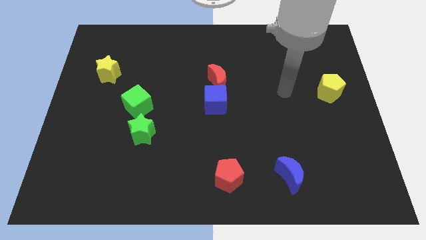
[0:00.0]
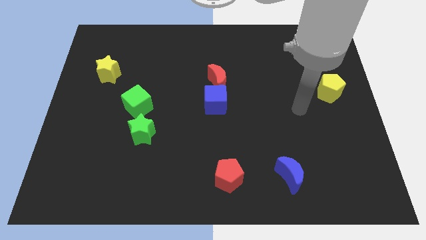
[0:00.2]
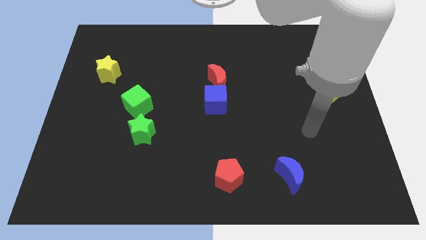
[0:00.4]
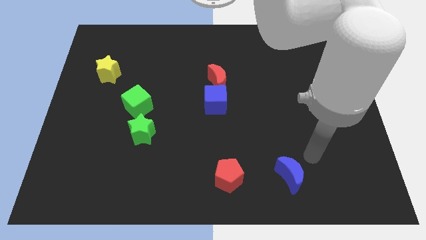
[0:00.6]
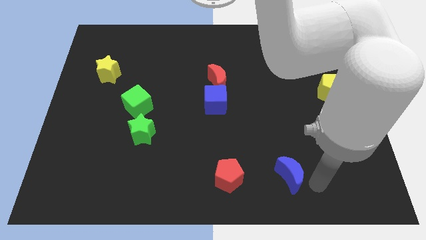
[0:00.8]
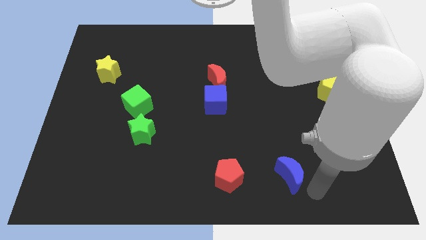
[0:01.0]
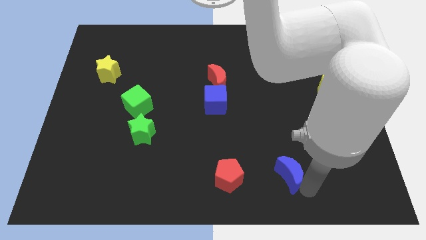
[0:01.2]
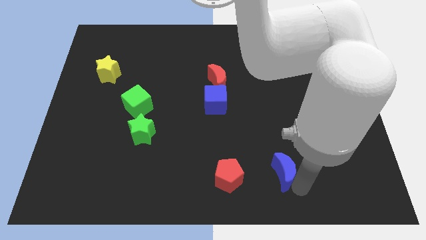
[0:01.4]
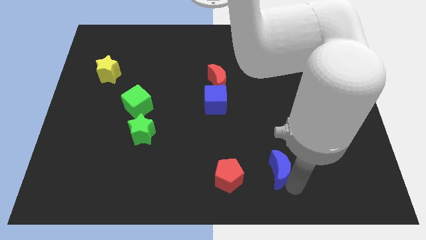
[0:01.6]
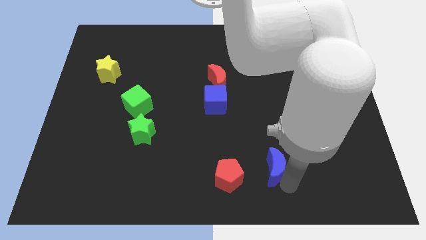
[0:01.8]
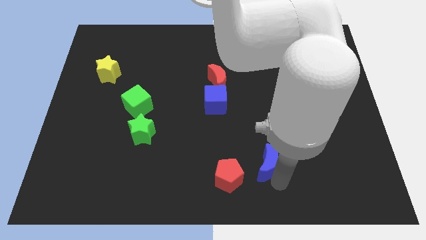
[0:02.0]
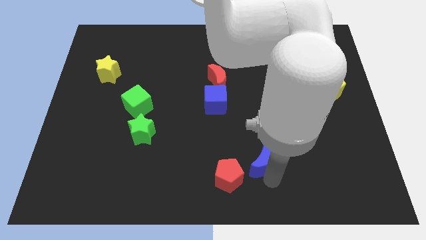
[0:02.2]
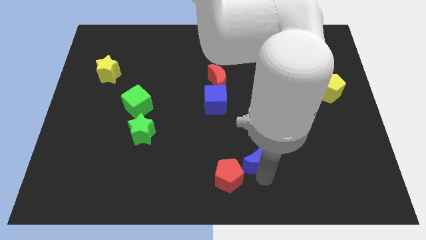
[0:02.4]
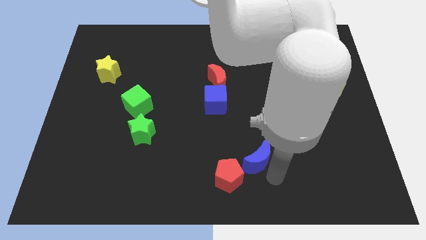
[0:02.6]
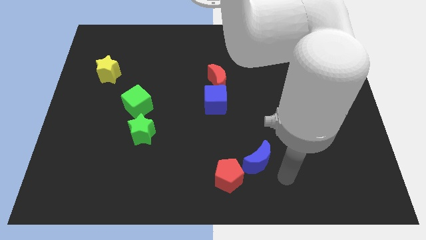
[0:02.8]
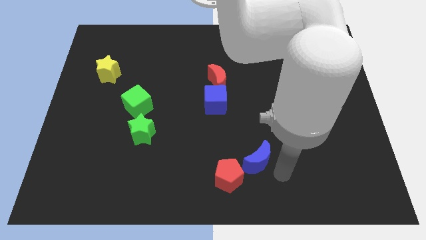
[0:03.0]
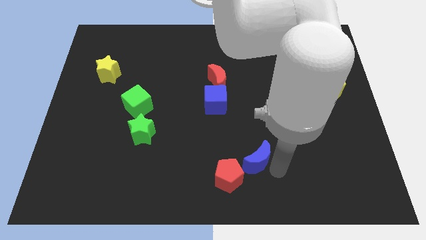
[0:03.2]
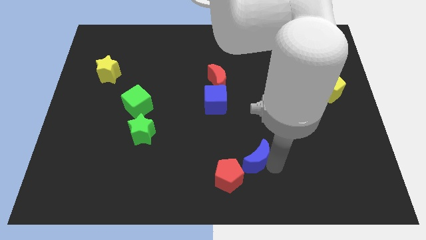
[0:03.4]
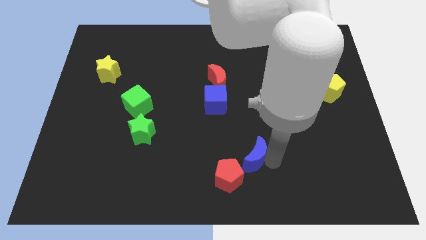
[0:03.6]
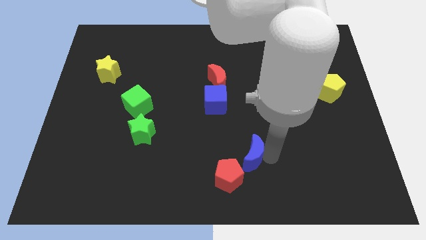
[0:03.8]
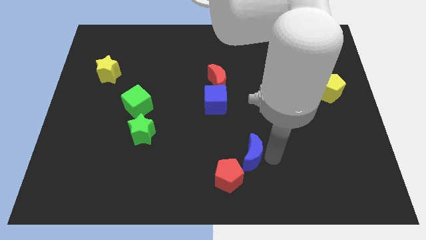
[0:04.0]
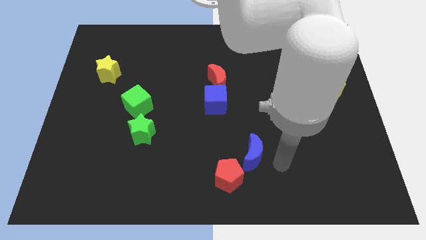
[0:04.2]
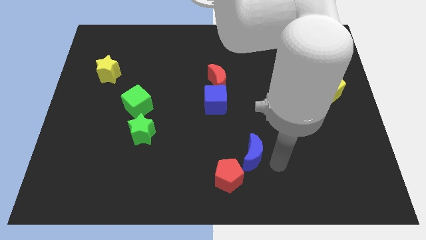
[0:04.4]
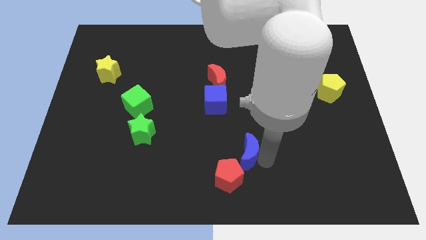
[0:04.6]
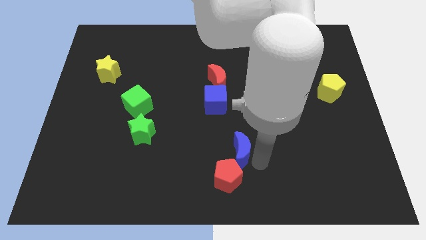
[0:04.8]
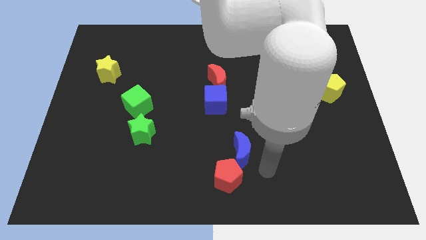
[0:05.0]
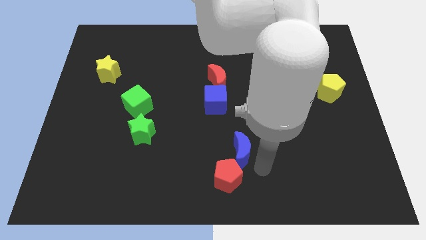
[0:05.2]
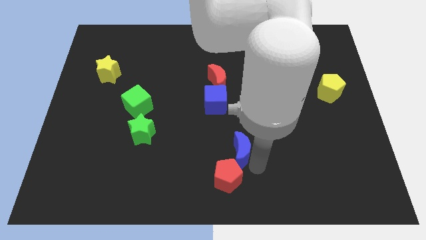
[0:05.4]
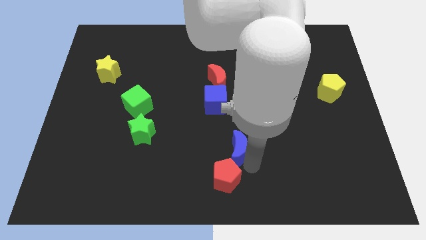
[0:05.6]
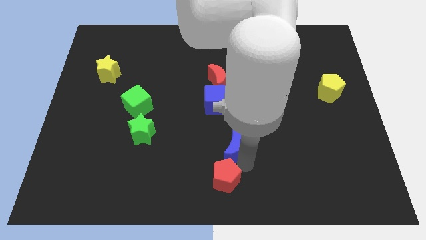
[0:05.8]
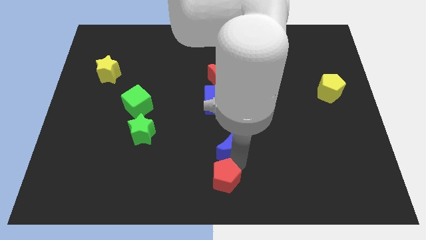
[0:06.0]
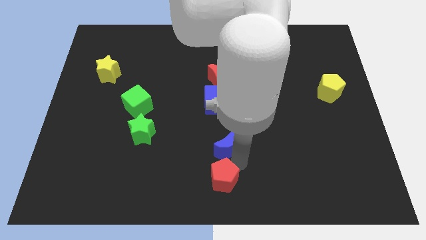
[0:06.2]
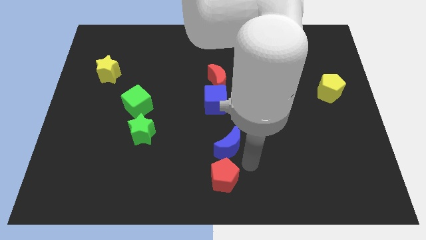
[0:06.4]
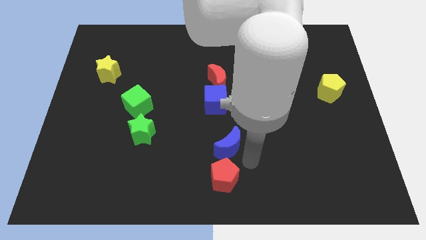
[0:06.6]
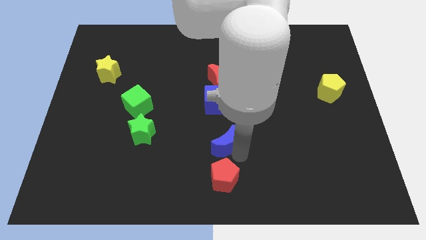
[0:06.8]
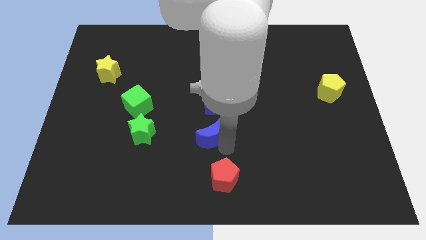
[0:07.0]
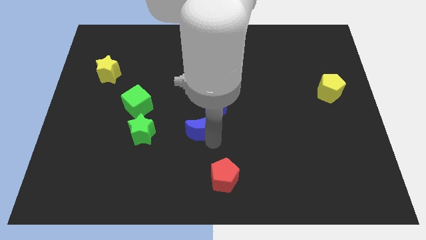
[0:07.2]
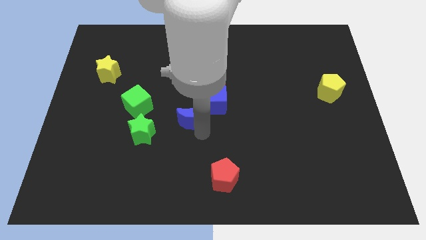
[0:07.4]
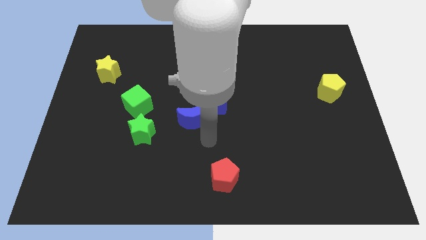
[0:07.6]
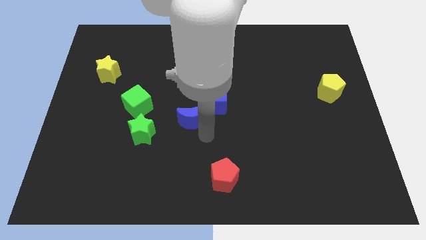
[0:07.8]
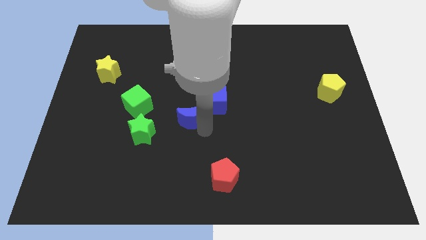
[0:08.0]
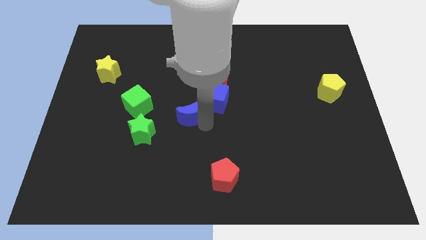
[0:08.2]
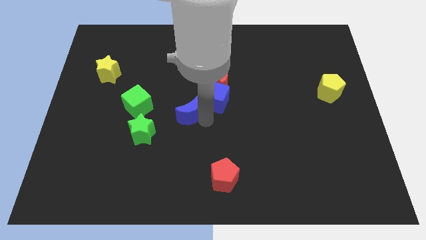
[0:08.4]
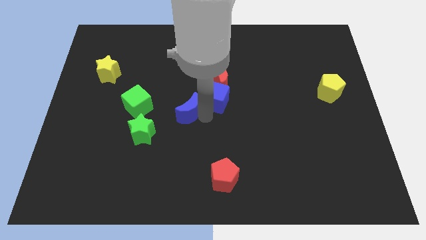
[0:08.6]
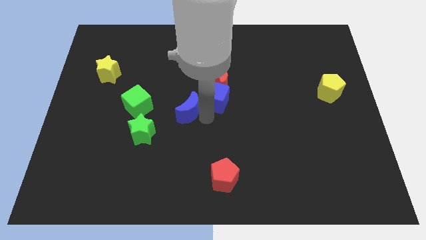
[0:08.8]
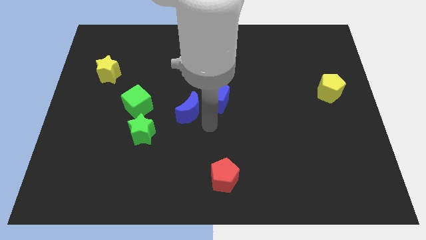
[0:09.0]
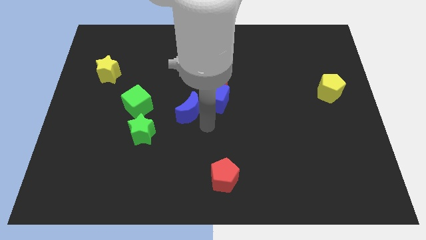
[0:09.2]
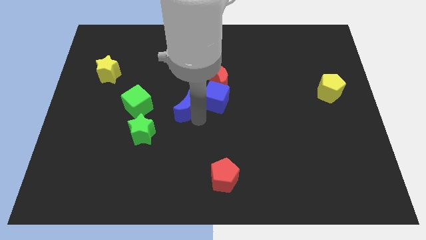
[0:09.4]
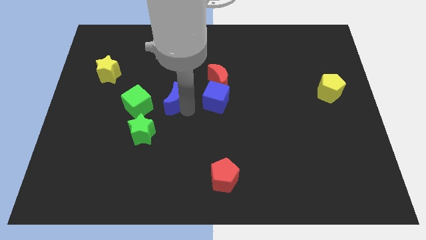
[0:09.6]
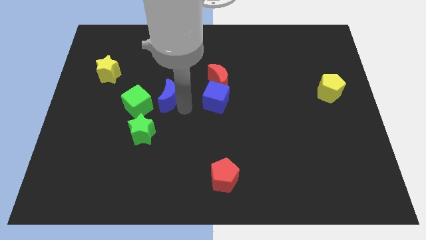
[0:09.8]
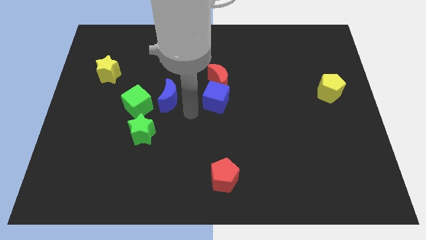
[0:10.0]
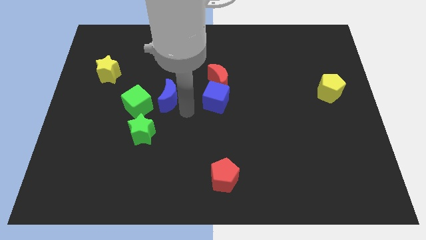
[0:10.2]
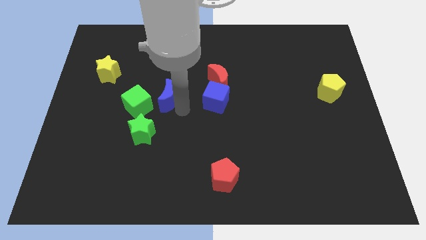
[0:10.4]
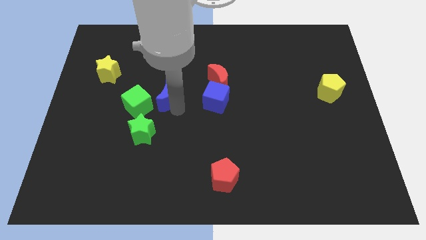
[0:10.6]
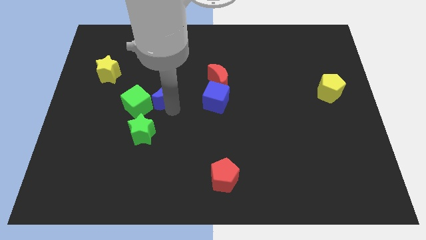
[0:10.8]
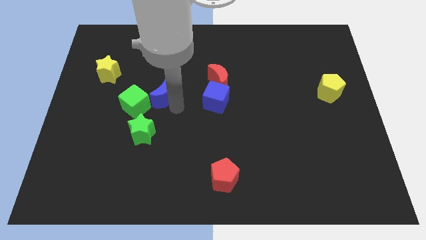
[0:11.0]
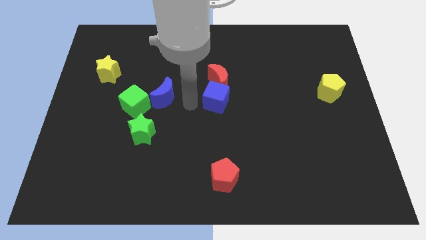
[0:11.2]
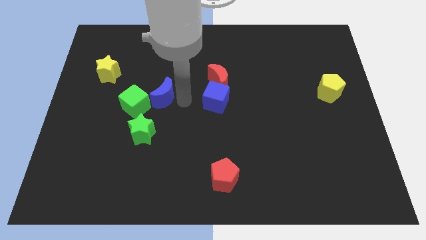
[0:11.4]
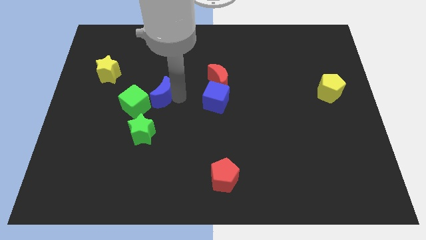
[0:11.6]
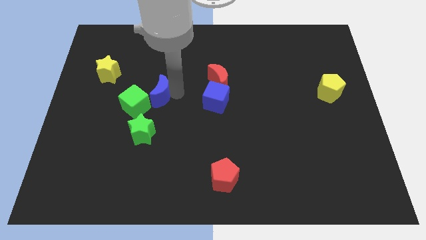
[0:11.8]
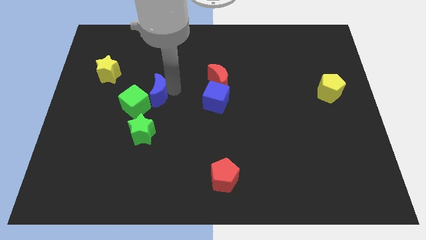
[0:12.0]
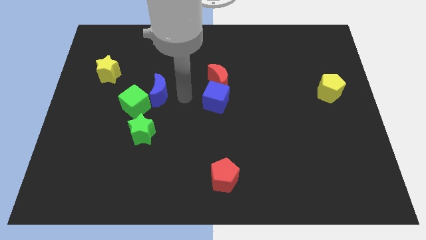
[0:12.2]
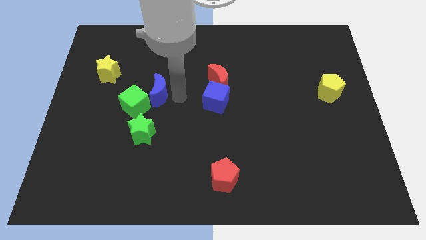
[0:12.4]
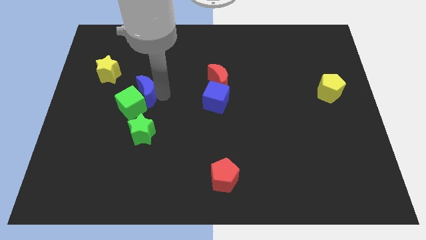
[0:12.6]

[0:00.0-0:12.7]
put the blue moon to the bottom right of the yellow star
